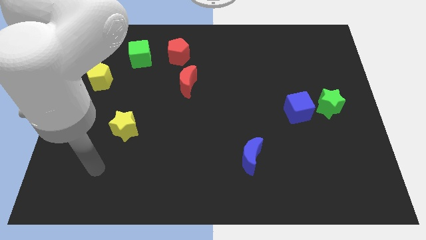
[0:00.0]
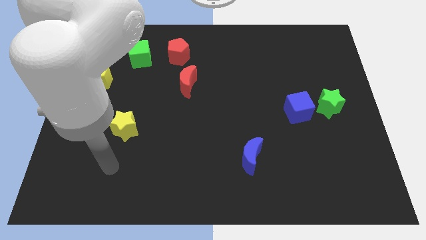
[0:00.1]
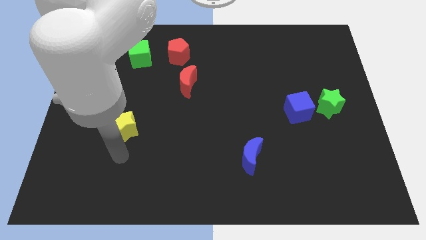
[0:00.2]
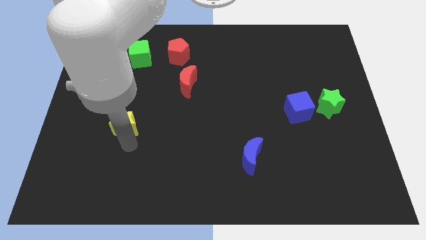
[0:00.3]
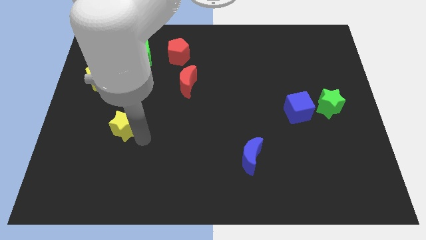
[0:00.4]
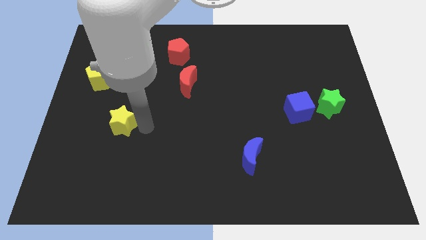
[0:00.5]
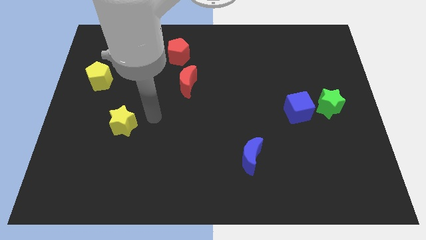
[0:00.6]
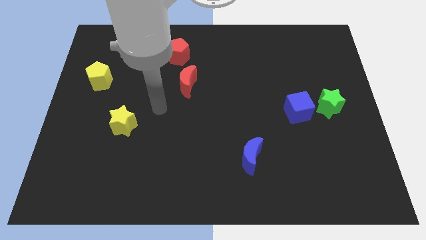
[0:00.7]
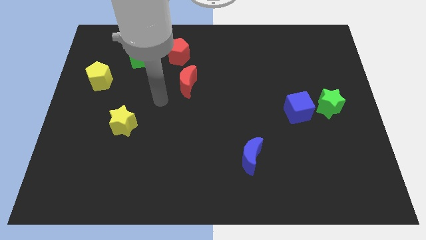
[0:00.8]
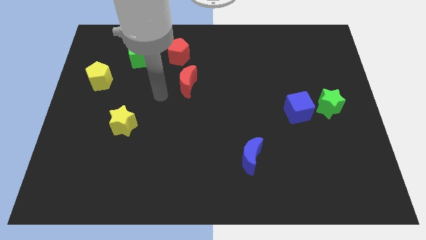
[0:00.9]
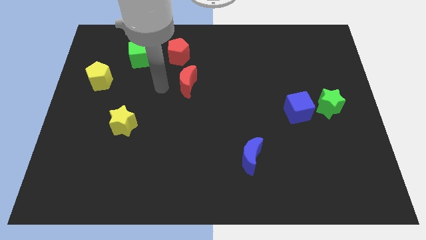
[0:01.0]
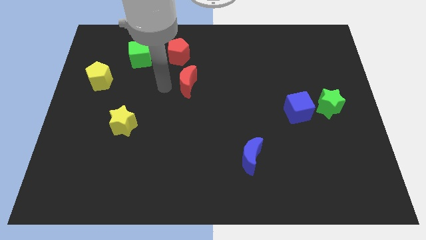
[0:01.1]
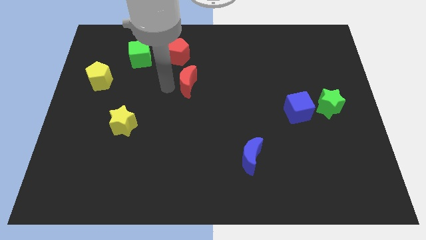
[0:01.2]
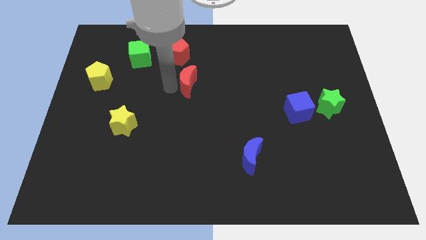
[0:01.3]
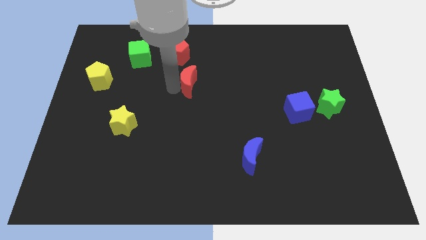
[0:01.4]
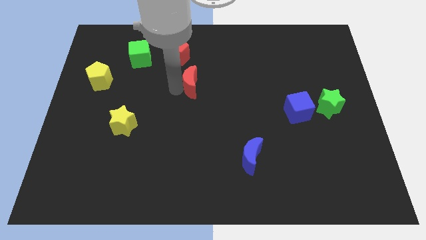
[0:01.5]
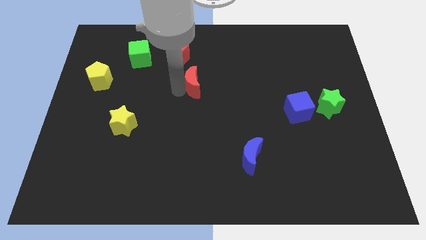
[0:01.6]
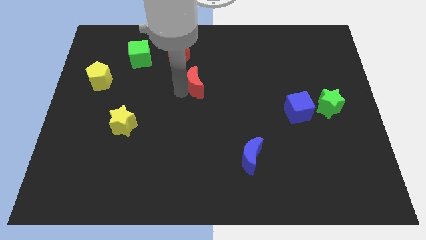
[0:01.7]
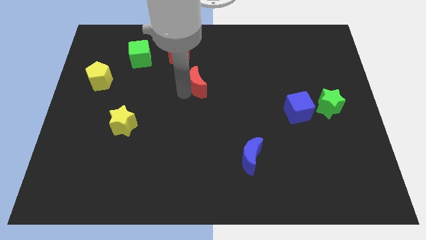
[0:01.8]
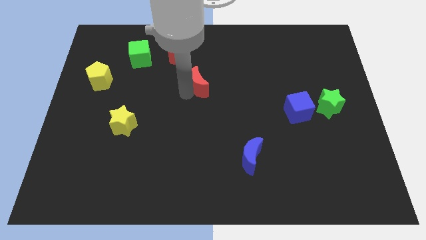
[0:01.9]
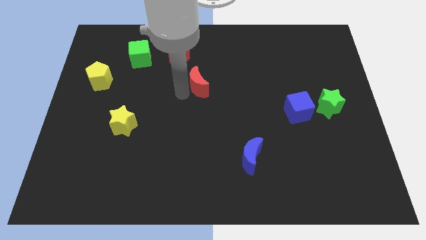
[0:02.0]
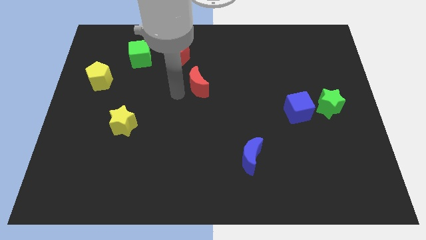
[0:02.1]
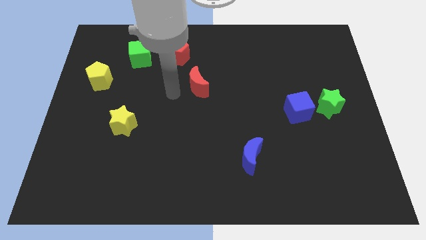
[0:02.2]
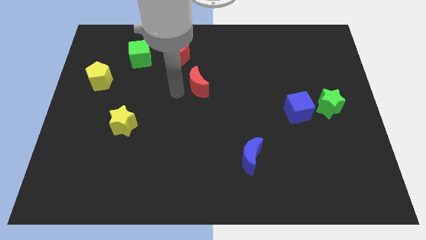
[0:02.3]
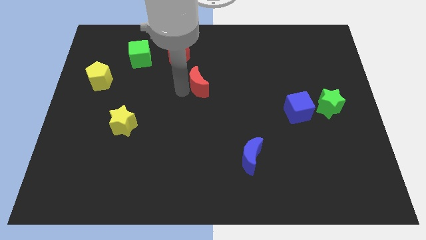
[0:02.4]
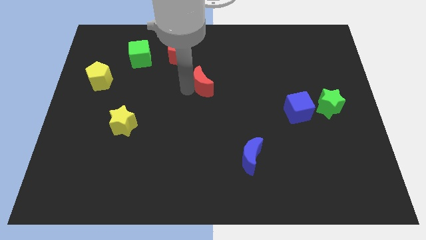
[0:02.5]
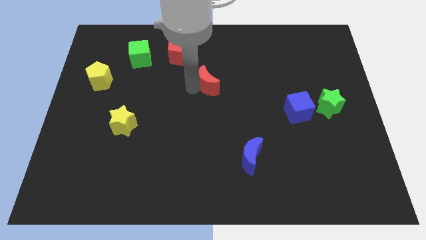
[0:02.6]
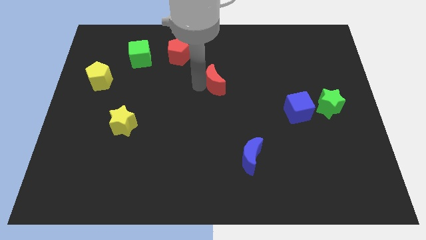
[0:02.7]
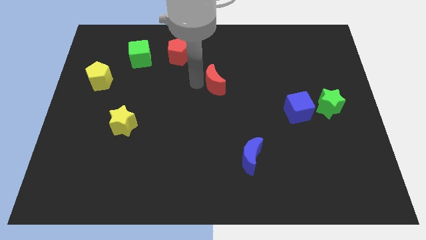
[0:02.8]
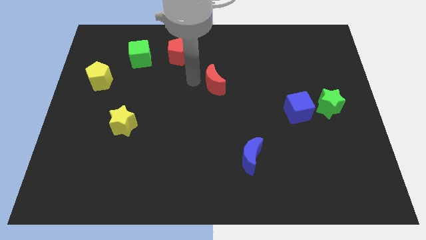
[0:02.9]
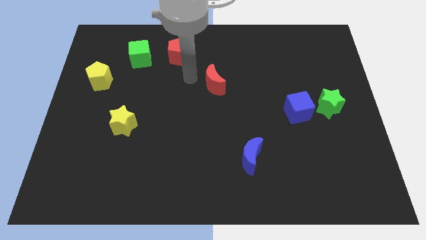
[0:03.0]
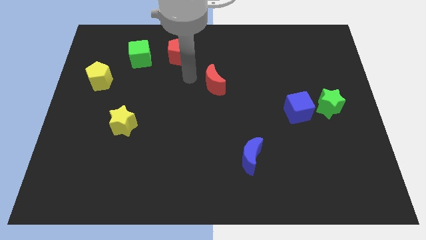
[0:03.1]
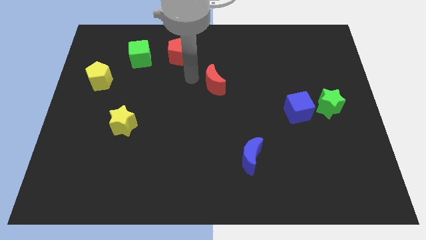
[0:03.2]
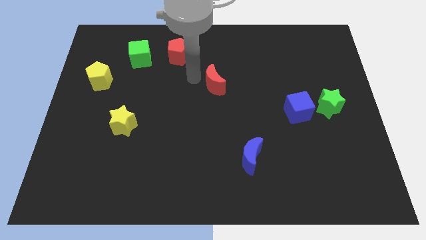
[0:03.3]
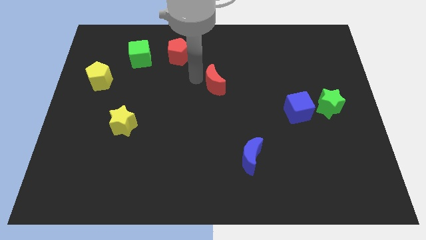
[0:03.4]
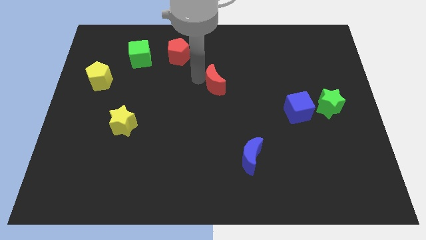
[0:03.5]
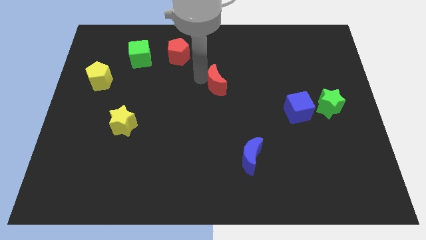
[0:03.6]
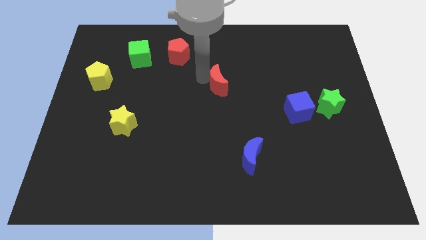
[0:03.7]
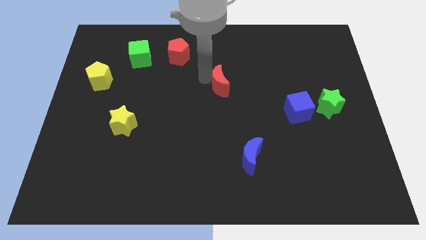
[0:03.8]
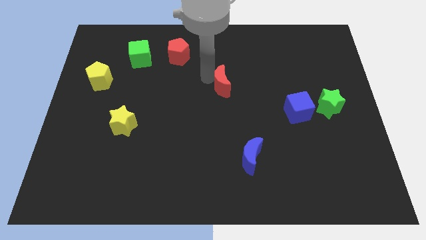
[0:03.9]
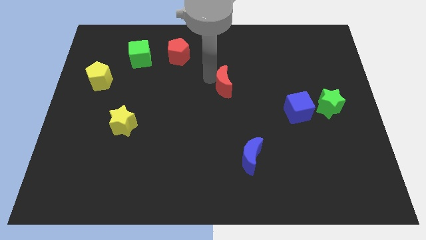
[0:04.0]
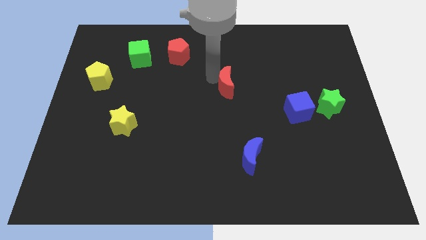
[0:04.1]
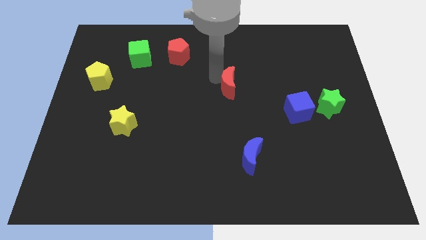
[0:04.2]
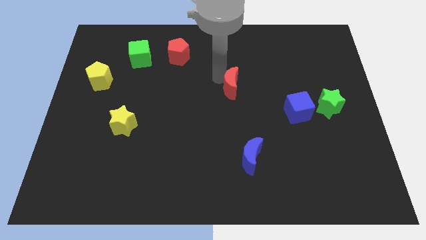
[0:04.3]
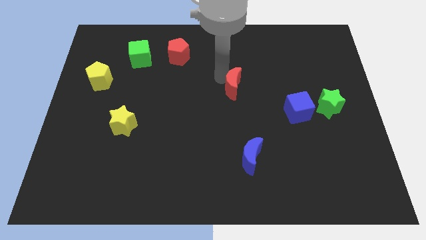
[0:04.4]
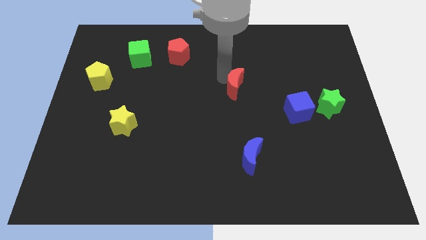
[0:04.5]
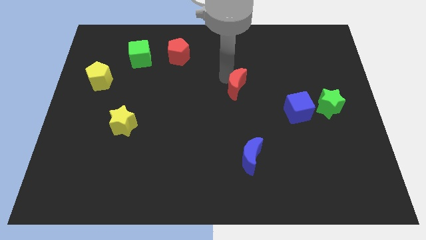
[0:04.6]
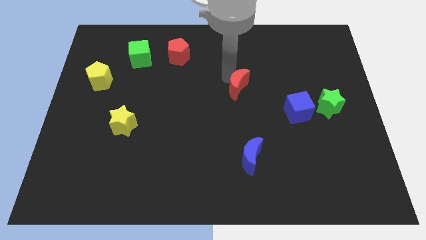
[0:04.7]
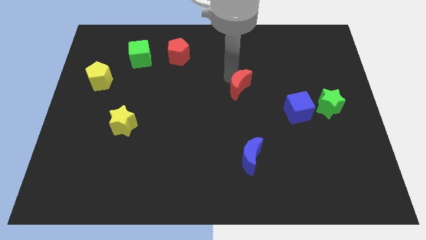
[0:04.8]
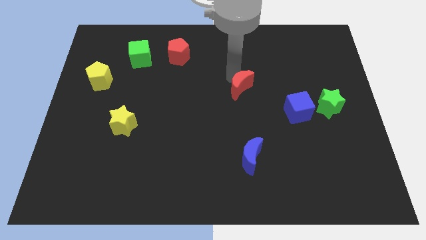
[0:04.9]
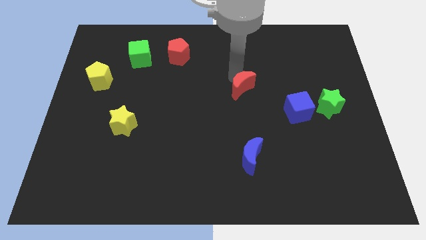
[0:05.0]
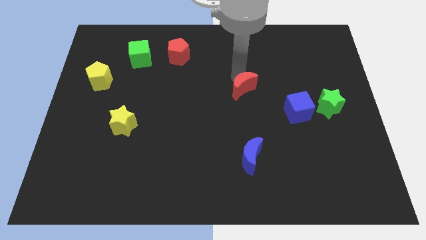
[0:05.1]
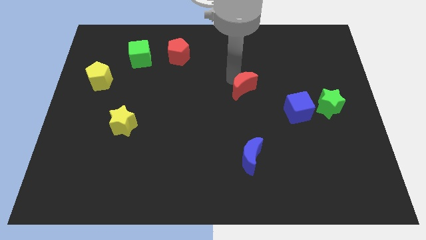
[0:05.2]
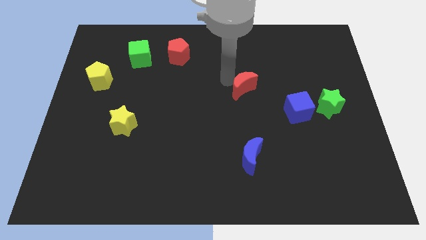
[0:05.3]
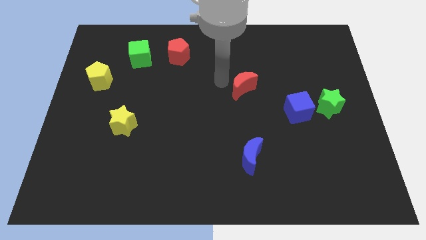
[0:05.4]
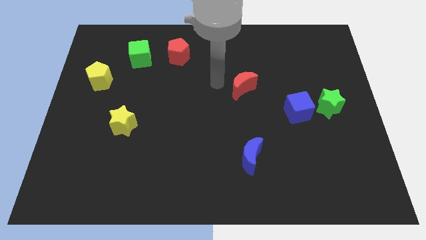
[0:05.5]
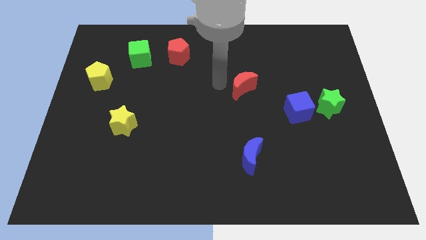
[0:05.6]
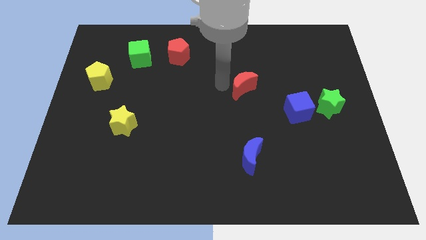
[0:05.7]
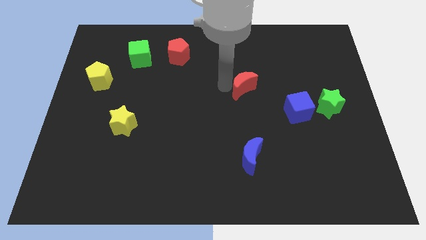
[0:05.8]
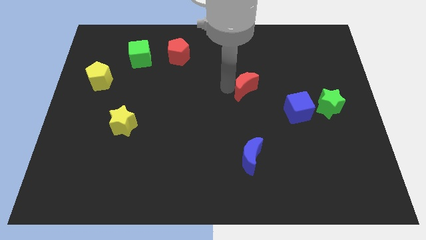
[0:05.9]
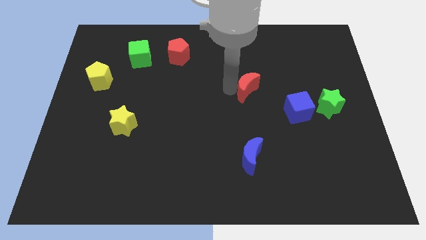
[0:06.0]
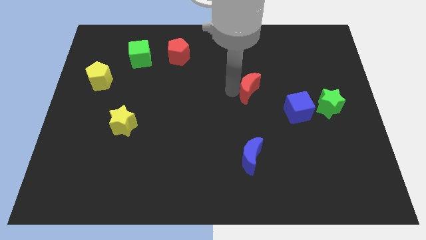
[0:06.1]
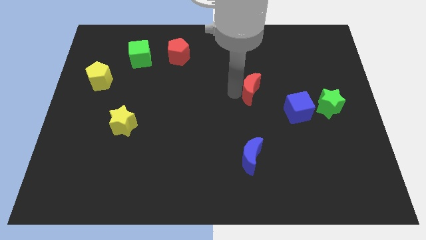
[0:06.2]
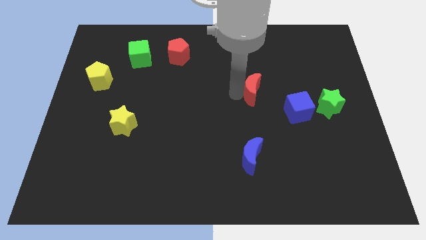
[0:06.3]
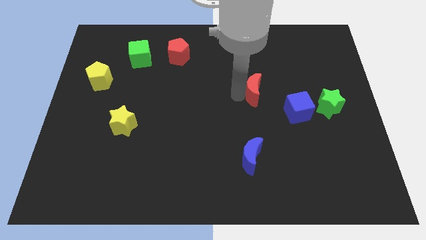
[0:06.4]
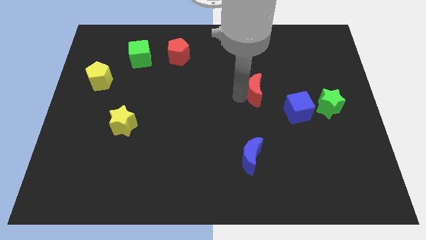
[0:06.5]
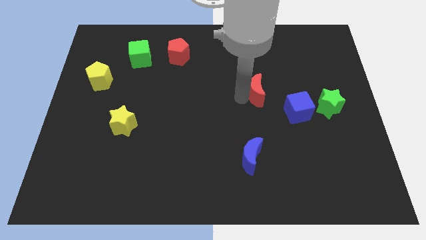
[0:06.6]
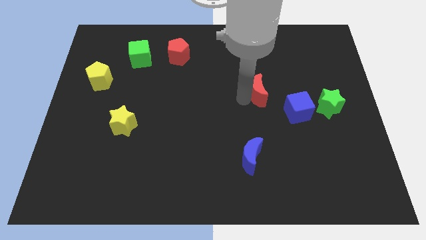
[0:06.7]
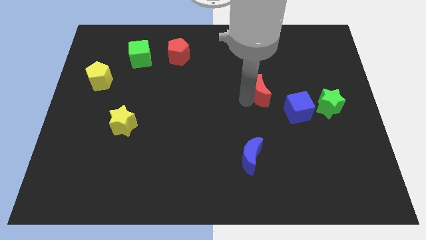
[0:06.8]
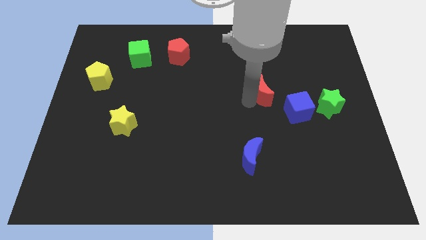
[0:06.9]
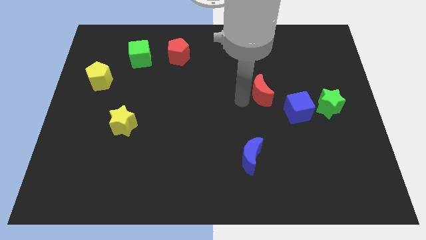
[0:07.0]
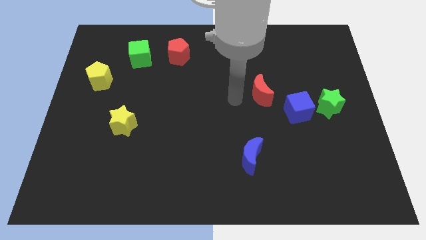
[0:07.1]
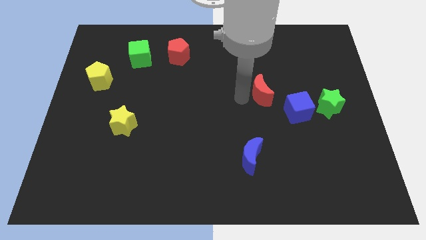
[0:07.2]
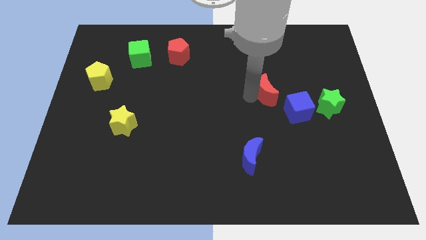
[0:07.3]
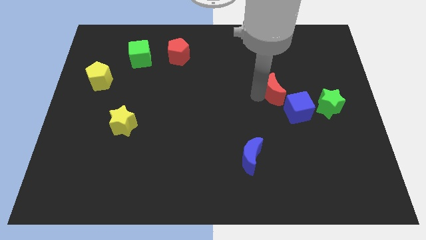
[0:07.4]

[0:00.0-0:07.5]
push the red moon to the right

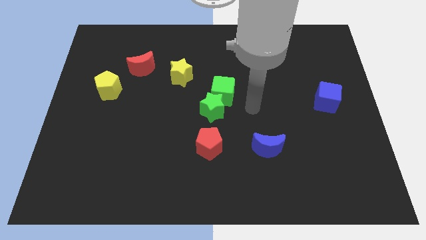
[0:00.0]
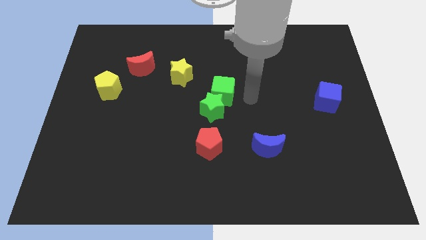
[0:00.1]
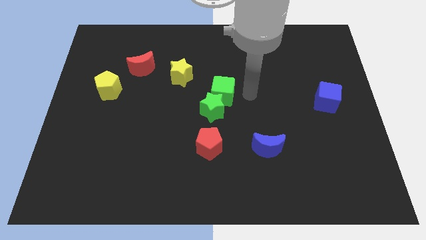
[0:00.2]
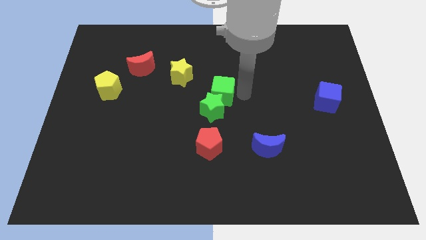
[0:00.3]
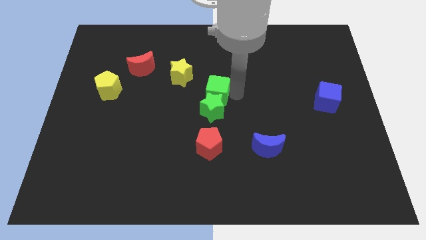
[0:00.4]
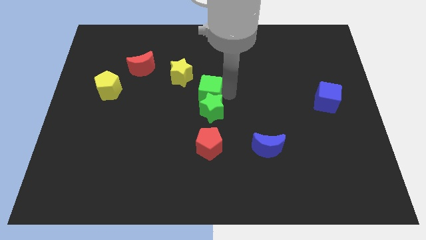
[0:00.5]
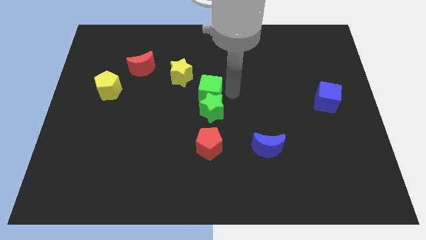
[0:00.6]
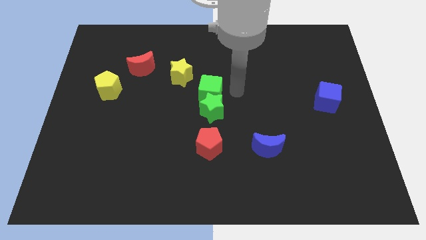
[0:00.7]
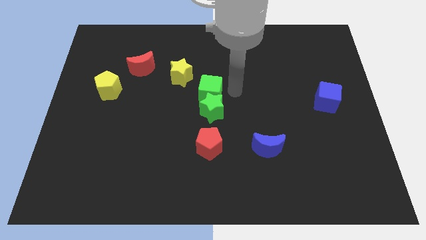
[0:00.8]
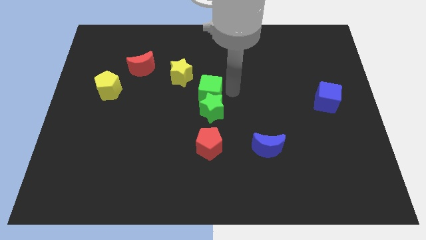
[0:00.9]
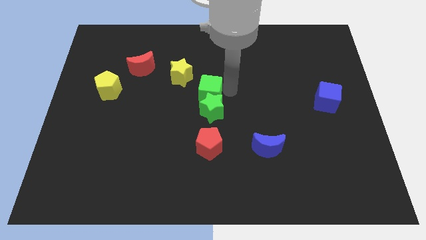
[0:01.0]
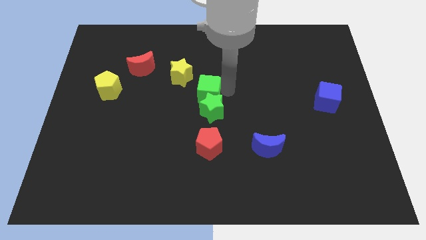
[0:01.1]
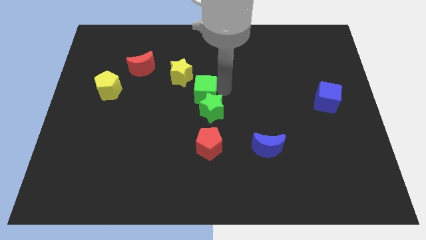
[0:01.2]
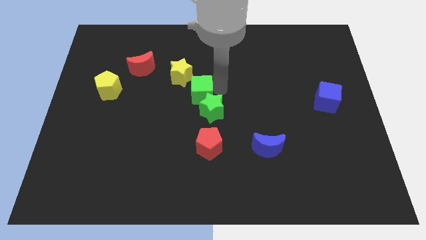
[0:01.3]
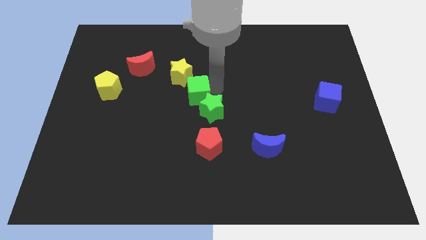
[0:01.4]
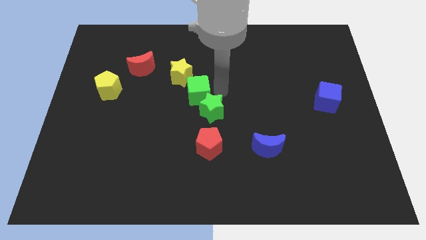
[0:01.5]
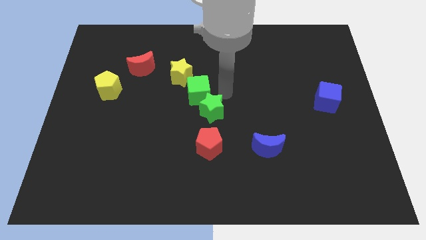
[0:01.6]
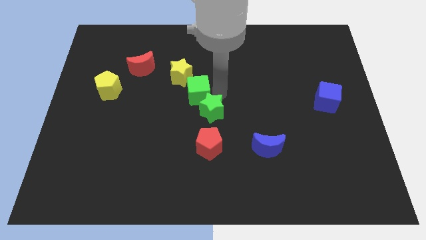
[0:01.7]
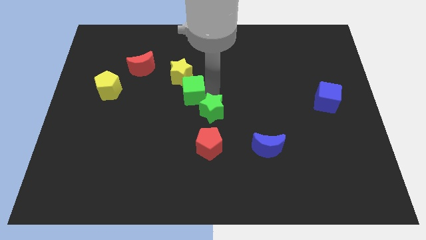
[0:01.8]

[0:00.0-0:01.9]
move the green cube a little bit to the left
